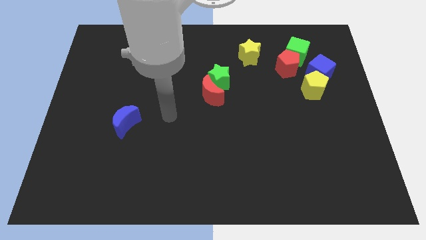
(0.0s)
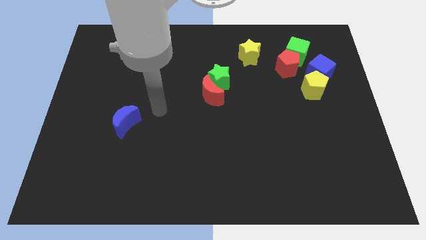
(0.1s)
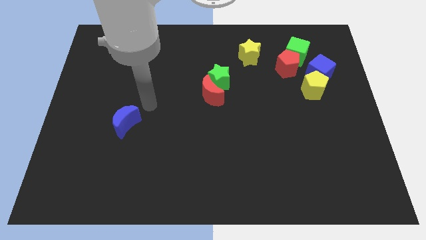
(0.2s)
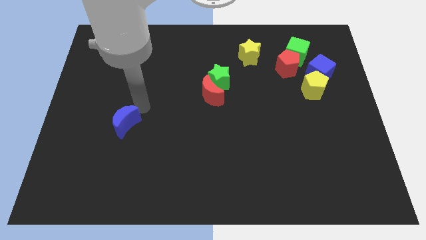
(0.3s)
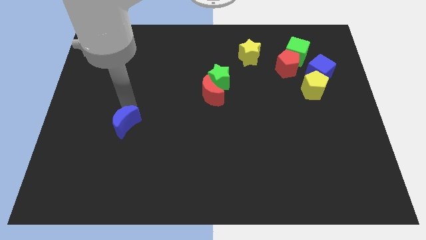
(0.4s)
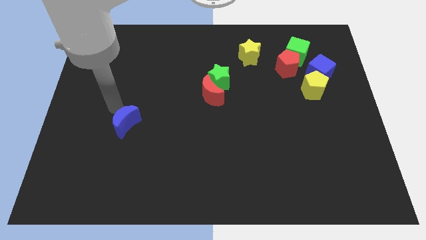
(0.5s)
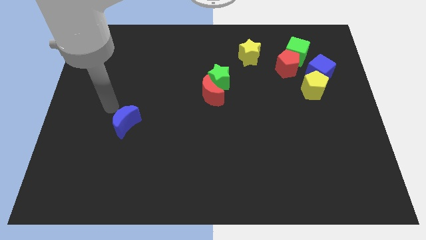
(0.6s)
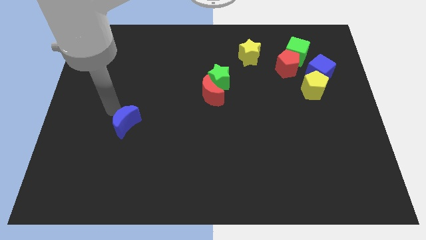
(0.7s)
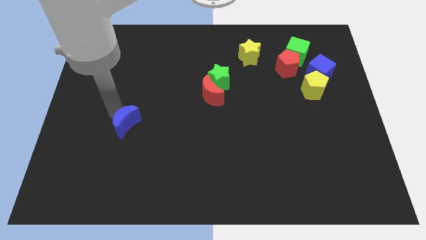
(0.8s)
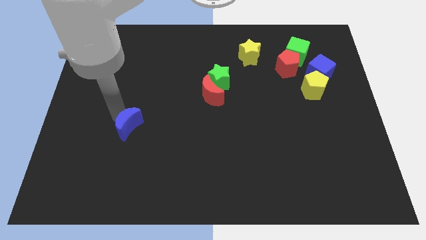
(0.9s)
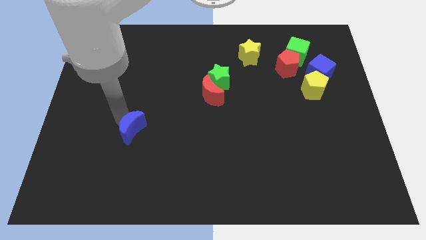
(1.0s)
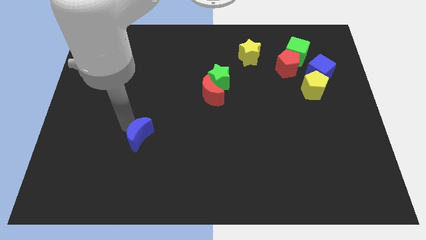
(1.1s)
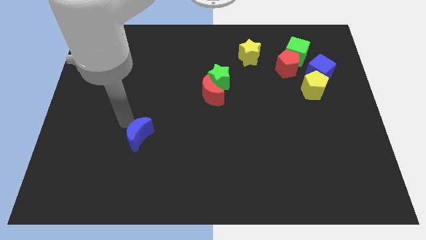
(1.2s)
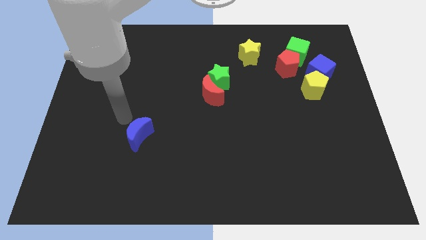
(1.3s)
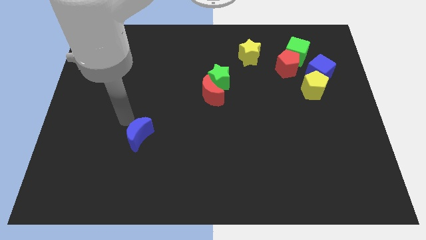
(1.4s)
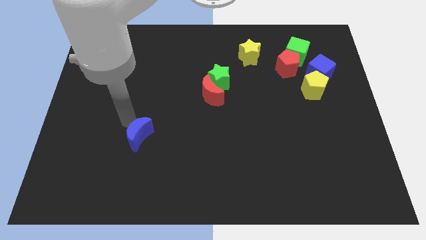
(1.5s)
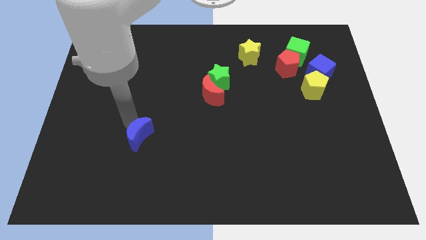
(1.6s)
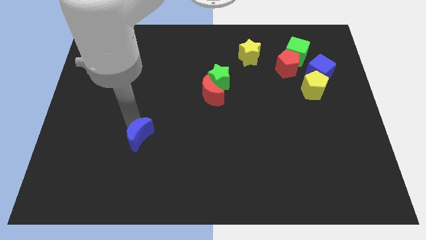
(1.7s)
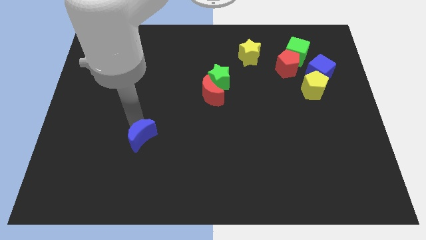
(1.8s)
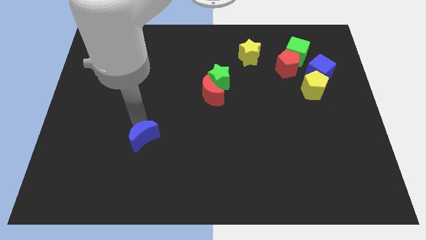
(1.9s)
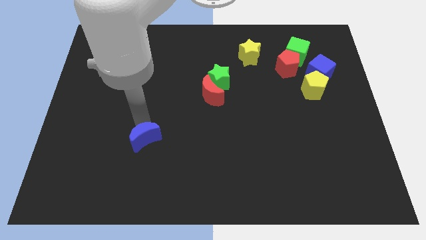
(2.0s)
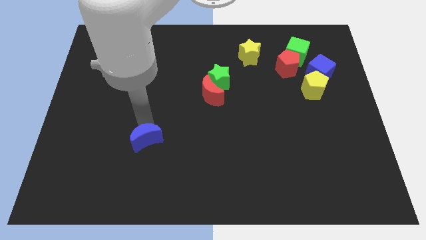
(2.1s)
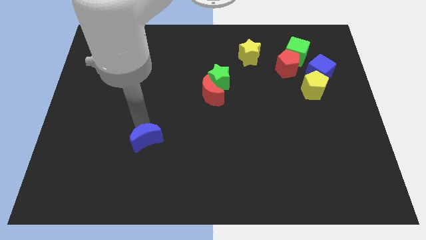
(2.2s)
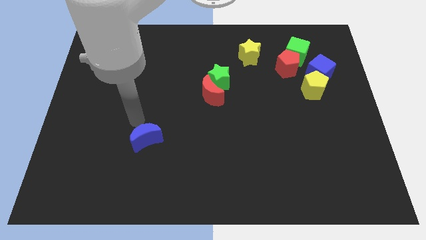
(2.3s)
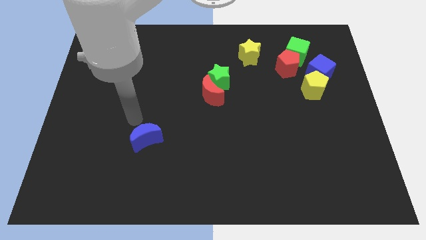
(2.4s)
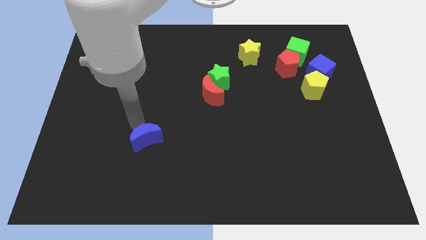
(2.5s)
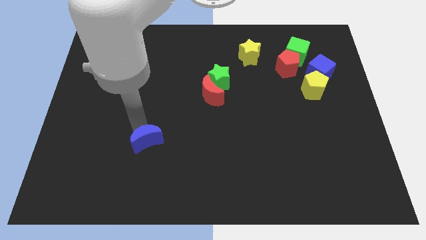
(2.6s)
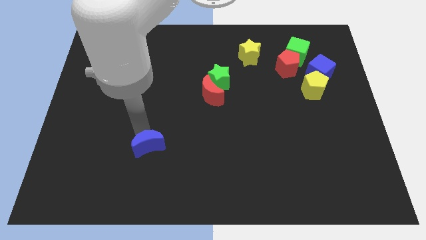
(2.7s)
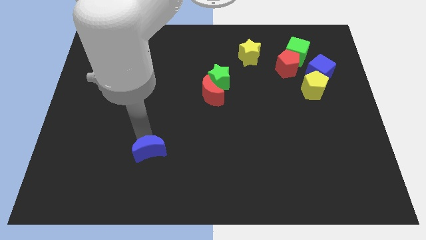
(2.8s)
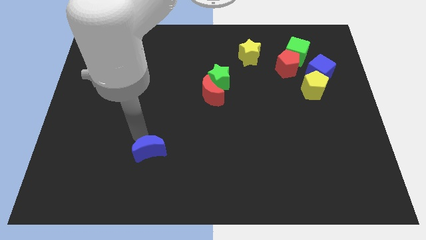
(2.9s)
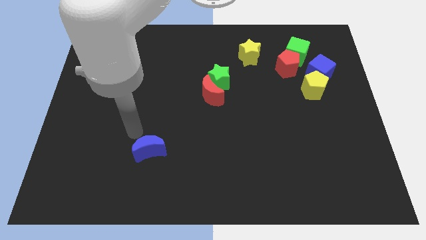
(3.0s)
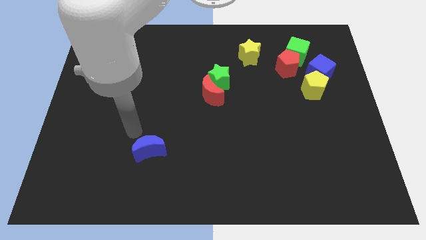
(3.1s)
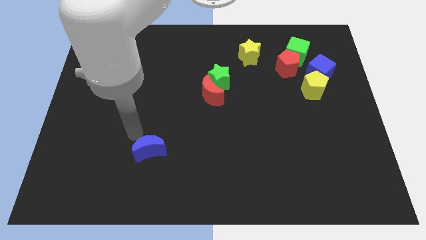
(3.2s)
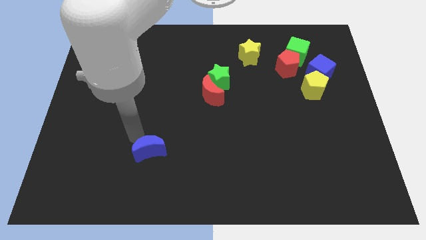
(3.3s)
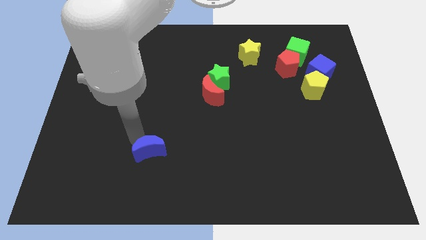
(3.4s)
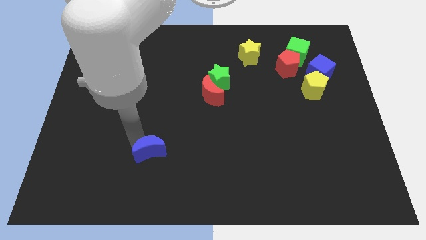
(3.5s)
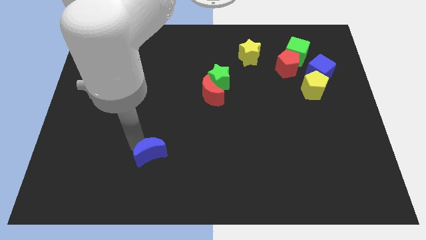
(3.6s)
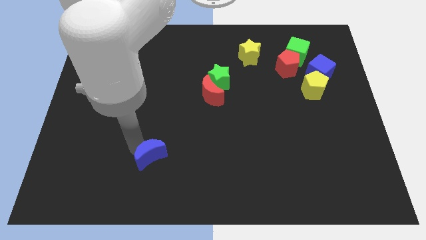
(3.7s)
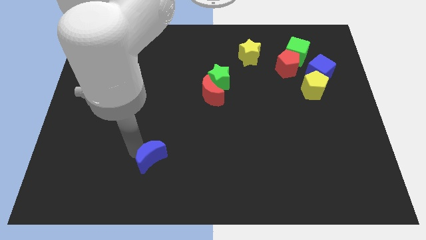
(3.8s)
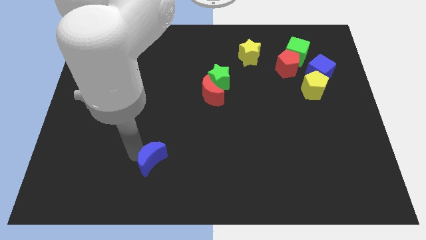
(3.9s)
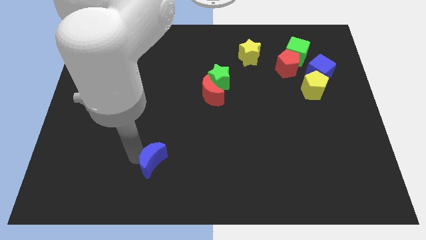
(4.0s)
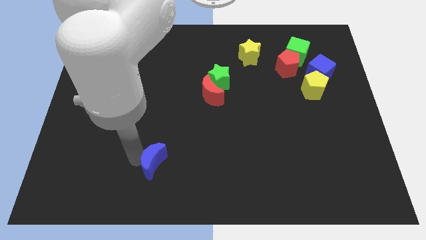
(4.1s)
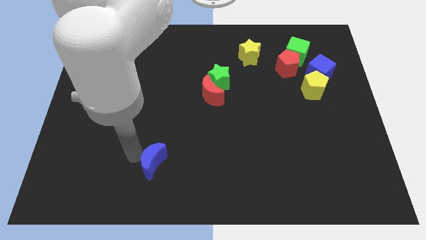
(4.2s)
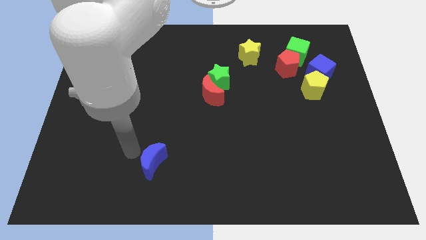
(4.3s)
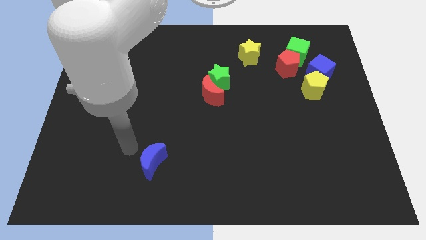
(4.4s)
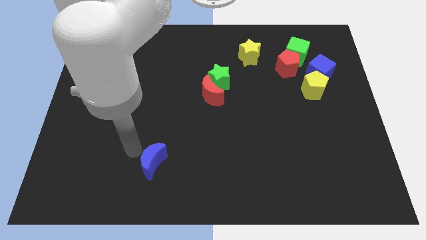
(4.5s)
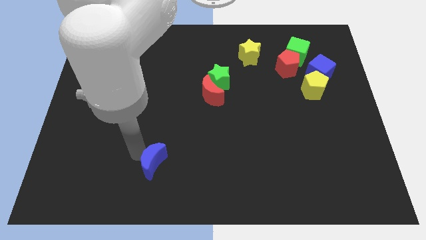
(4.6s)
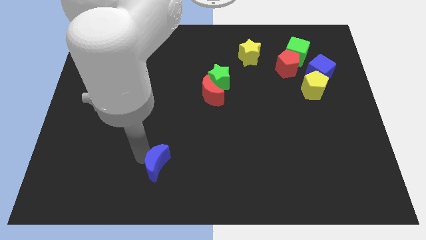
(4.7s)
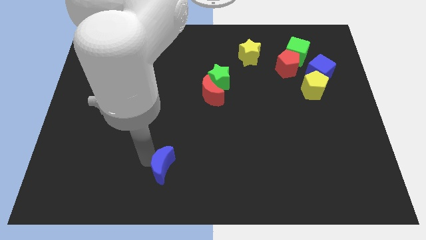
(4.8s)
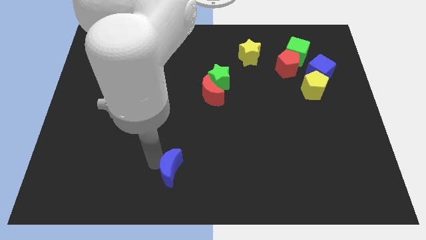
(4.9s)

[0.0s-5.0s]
slide the blue moon to the bottom side

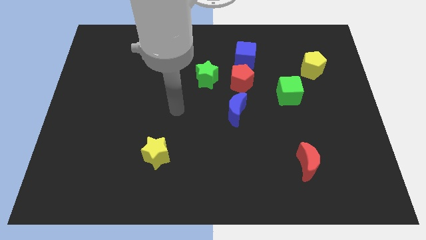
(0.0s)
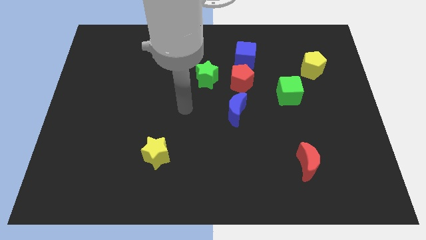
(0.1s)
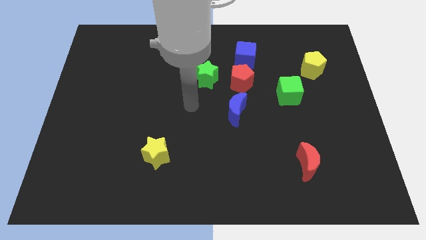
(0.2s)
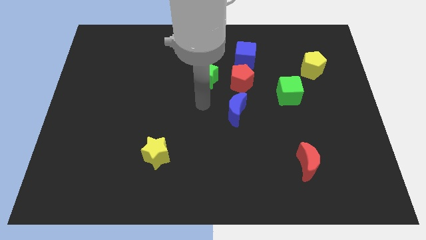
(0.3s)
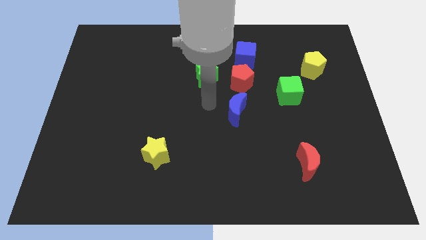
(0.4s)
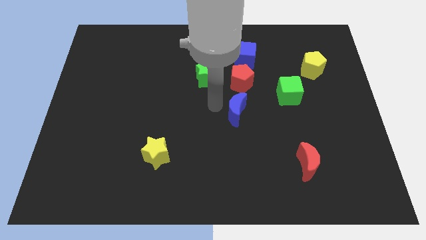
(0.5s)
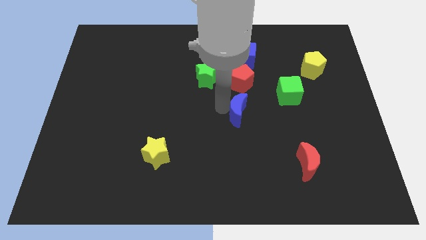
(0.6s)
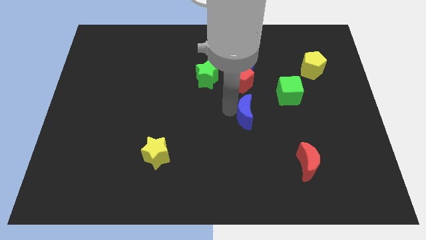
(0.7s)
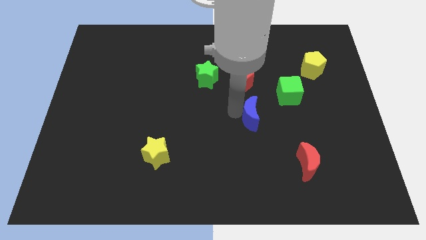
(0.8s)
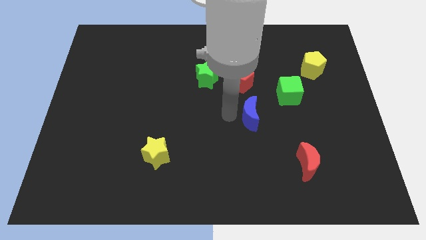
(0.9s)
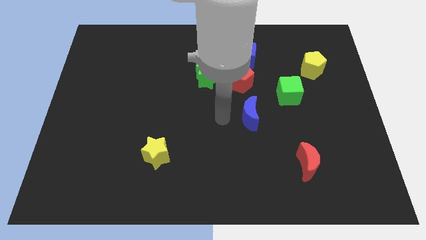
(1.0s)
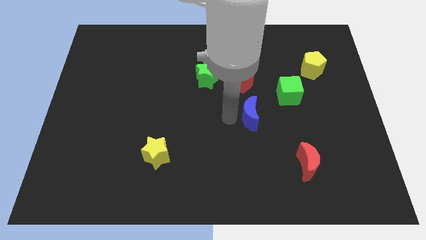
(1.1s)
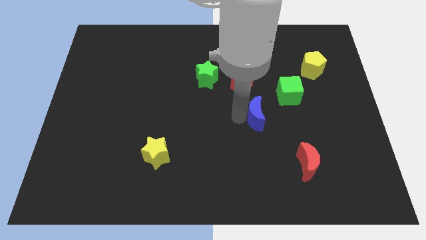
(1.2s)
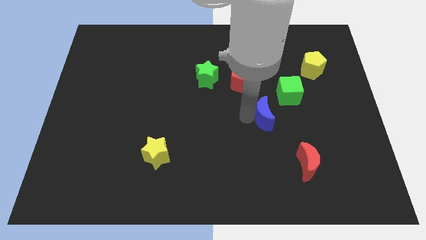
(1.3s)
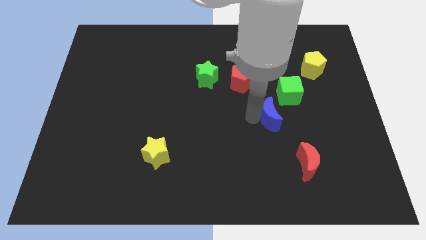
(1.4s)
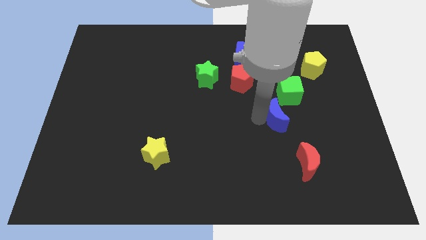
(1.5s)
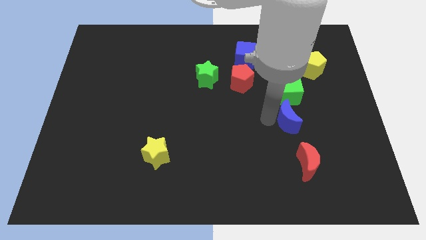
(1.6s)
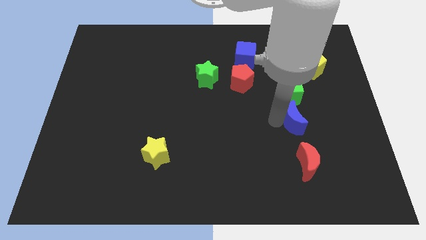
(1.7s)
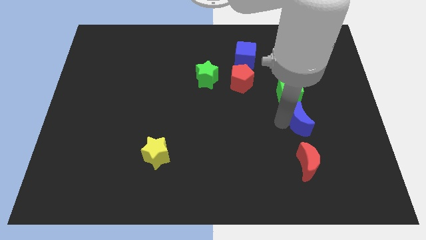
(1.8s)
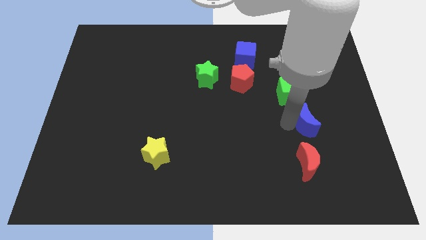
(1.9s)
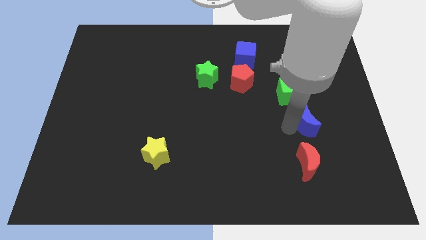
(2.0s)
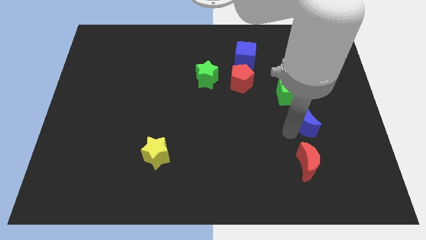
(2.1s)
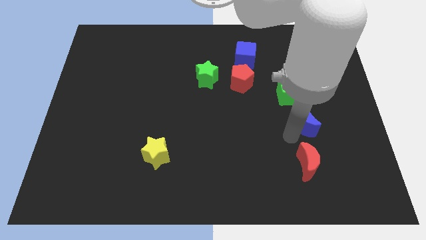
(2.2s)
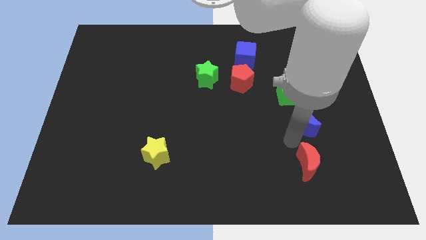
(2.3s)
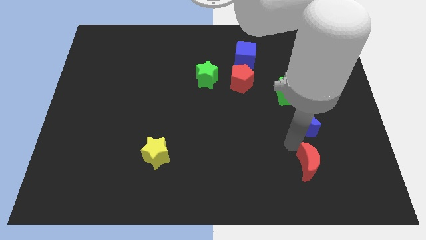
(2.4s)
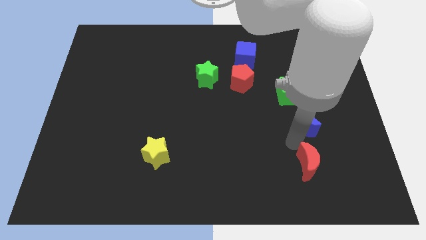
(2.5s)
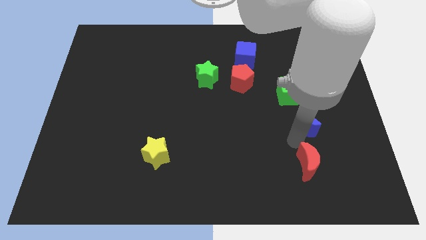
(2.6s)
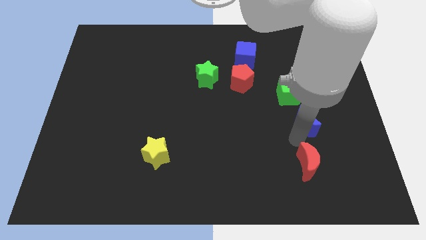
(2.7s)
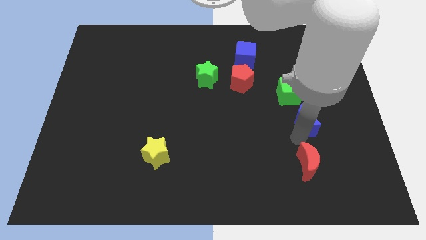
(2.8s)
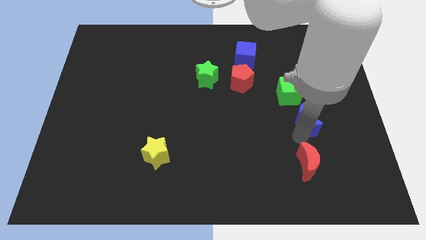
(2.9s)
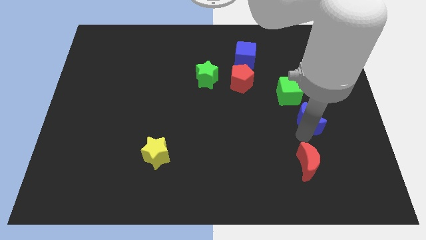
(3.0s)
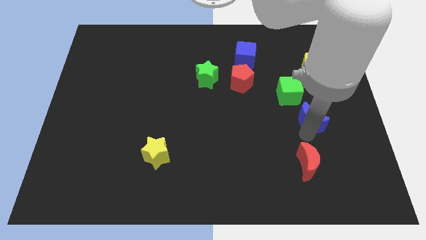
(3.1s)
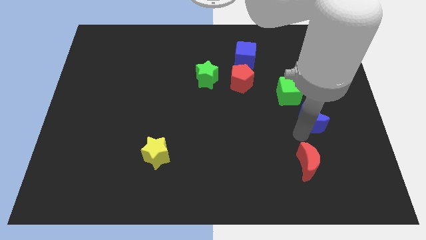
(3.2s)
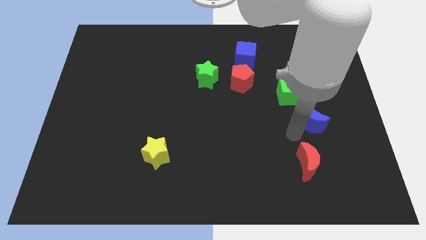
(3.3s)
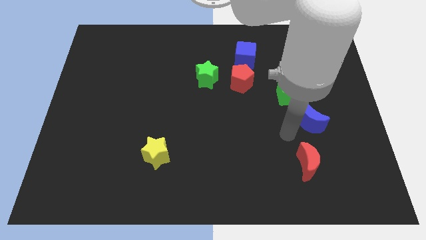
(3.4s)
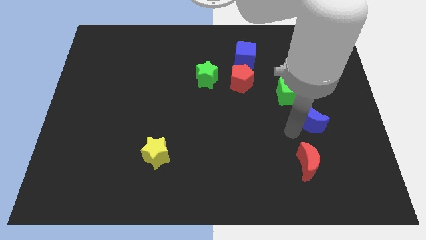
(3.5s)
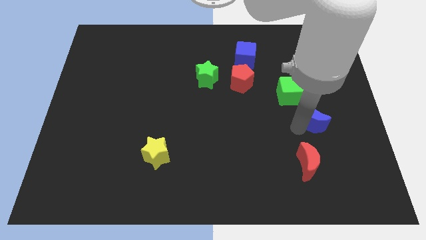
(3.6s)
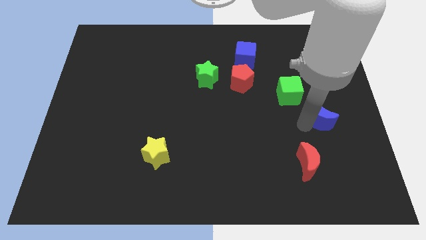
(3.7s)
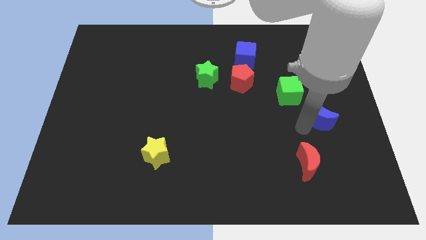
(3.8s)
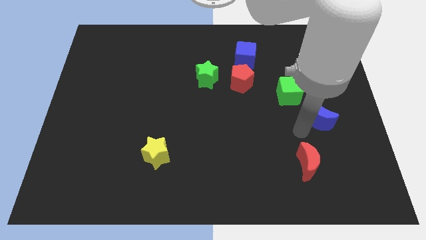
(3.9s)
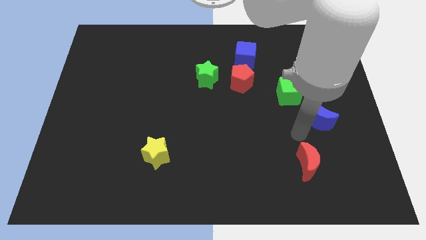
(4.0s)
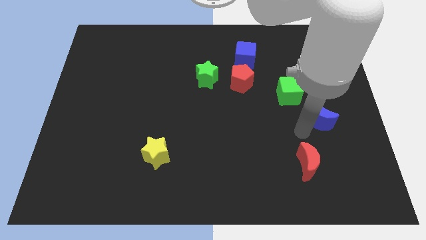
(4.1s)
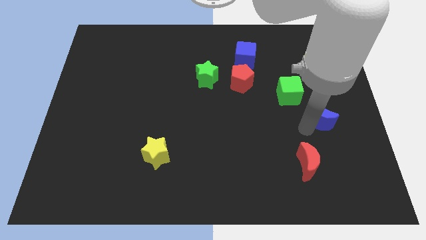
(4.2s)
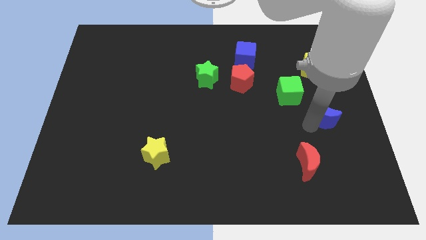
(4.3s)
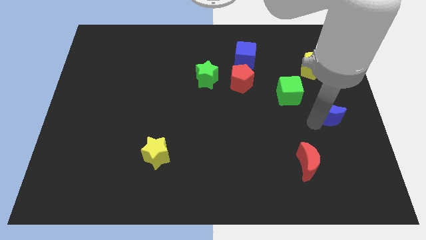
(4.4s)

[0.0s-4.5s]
push the blue moon to the right side
